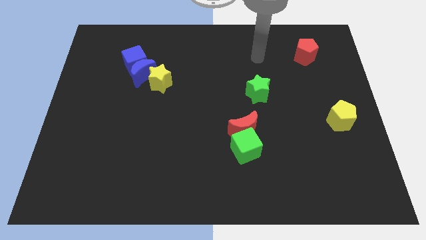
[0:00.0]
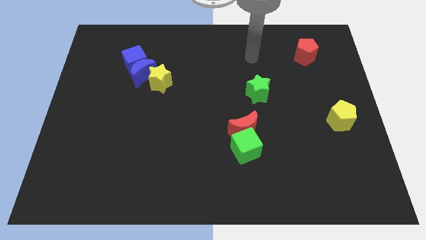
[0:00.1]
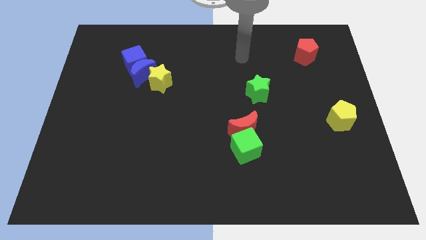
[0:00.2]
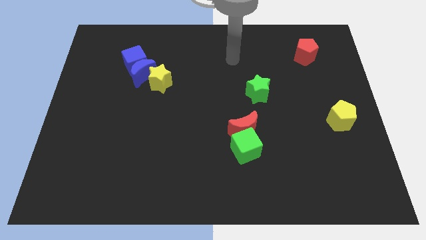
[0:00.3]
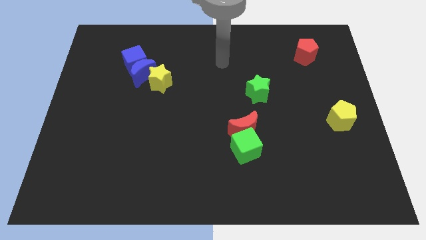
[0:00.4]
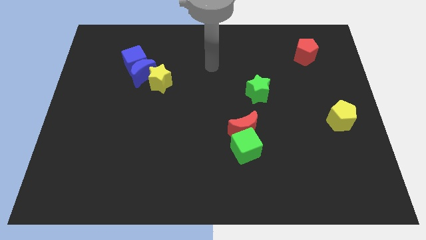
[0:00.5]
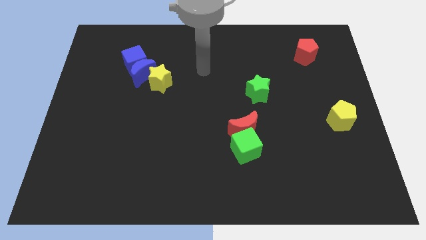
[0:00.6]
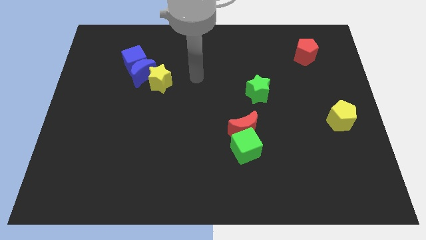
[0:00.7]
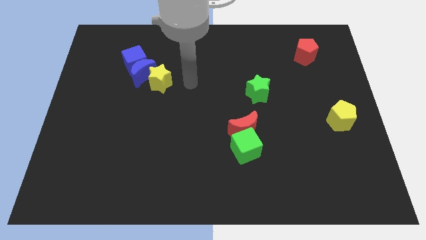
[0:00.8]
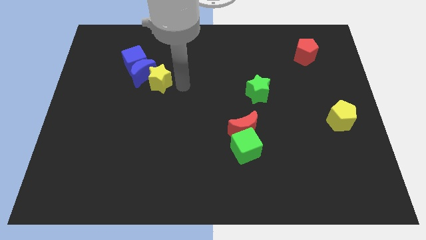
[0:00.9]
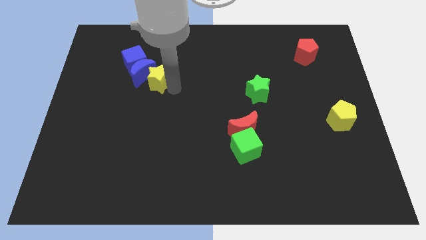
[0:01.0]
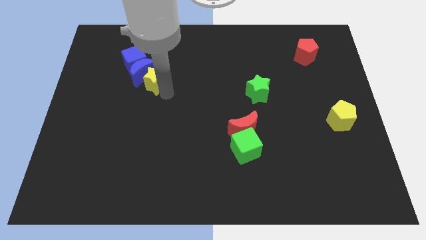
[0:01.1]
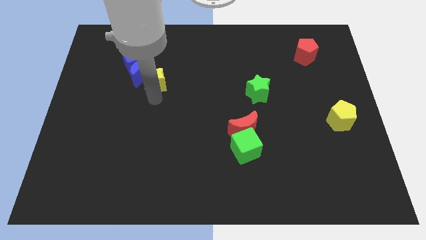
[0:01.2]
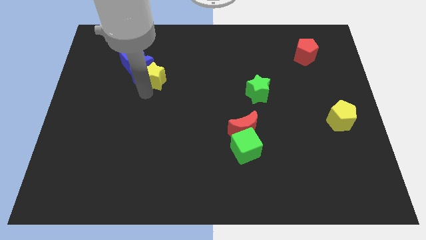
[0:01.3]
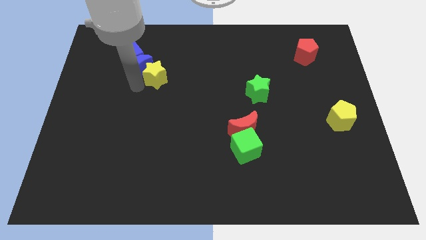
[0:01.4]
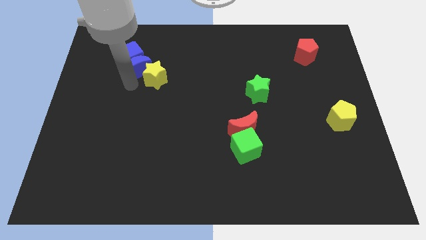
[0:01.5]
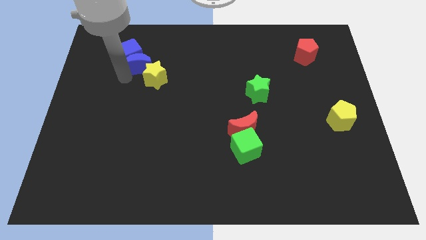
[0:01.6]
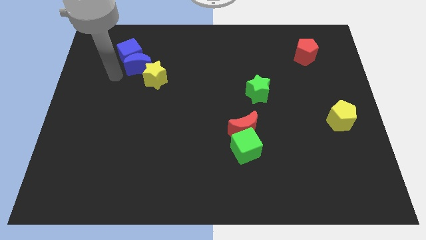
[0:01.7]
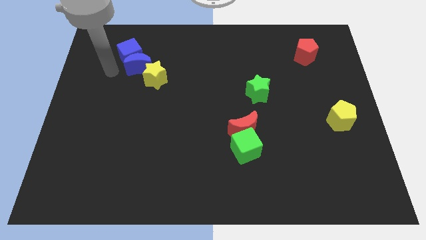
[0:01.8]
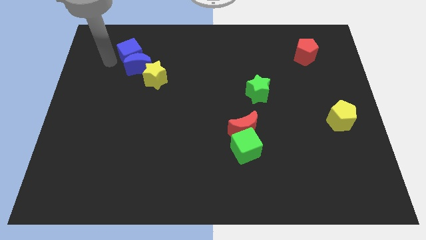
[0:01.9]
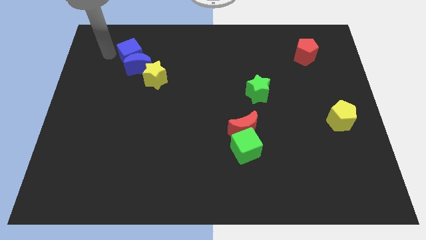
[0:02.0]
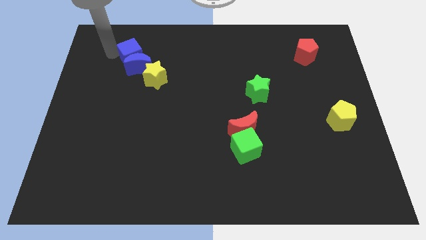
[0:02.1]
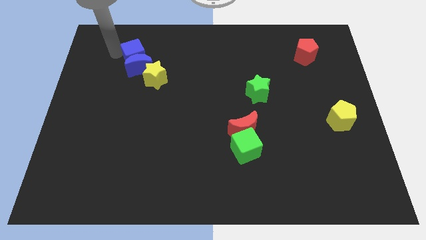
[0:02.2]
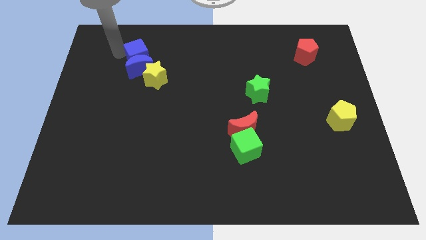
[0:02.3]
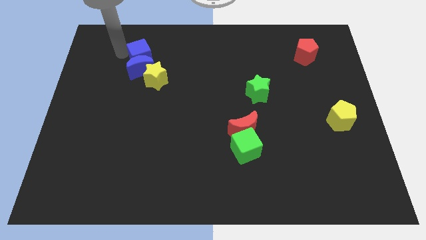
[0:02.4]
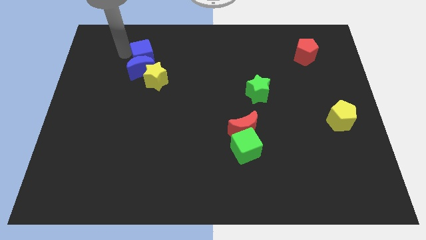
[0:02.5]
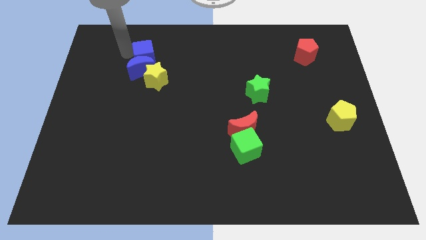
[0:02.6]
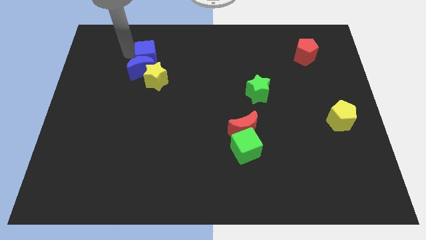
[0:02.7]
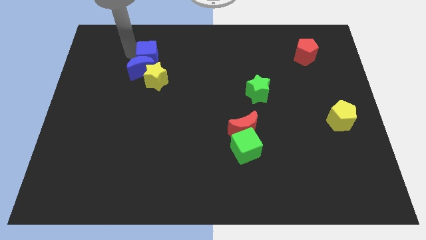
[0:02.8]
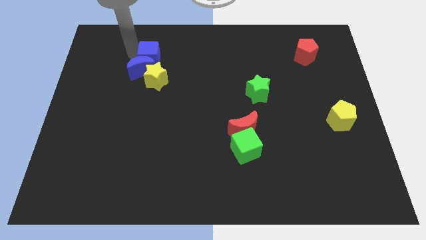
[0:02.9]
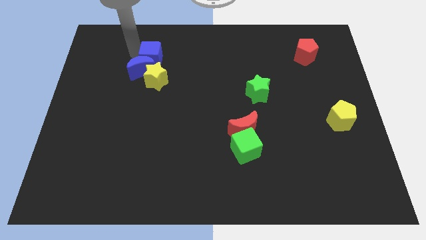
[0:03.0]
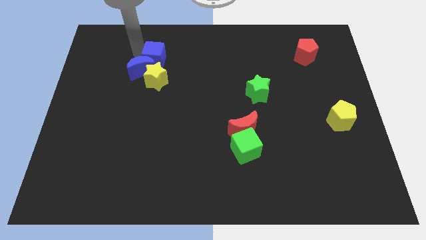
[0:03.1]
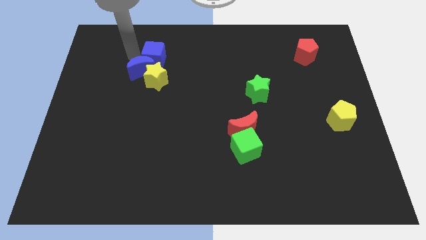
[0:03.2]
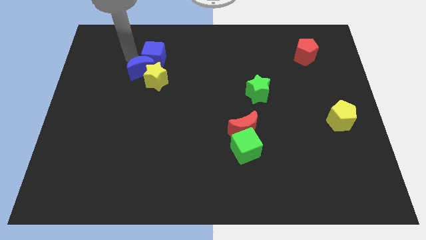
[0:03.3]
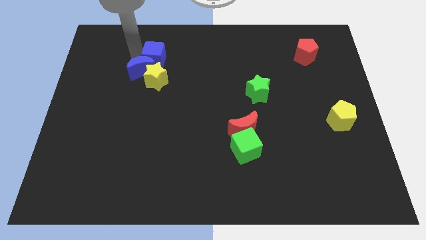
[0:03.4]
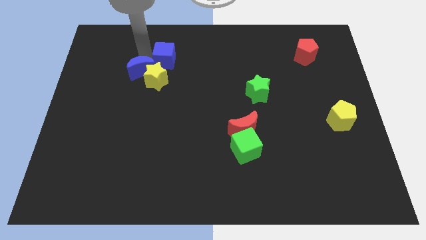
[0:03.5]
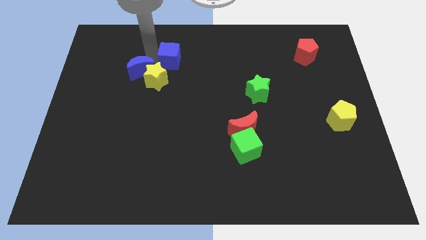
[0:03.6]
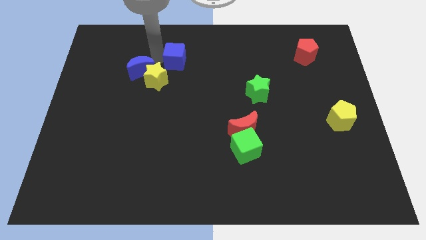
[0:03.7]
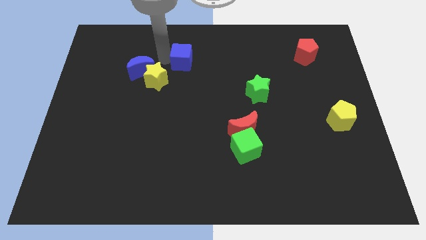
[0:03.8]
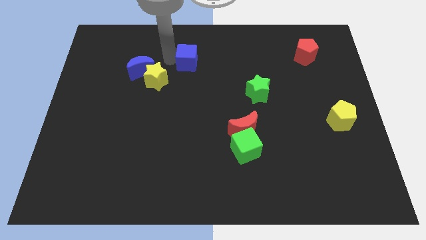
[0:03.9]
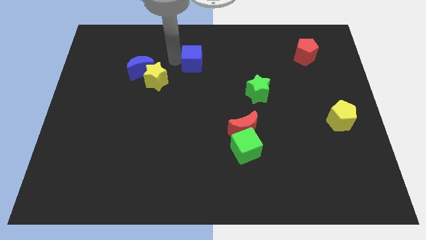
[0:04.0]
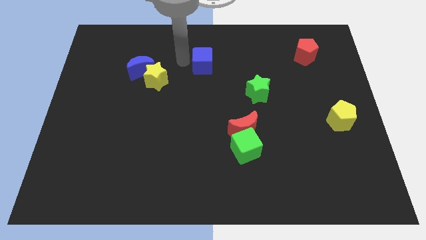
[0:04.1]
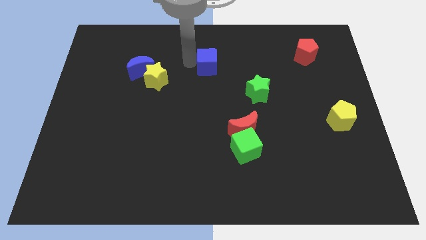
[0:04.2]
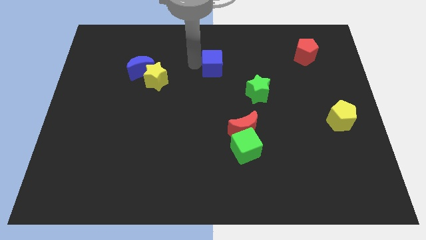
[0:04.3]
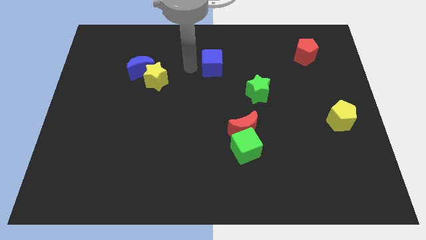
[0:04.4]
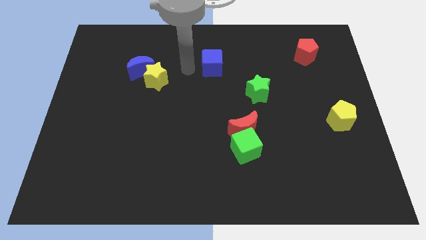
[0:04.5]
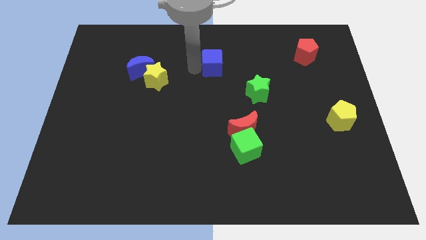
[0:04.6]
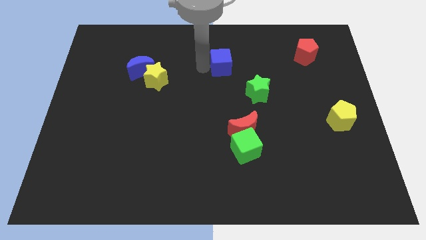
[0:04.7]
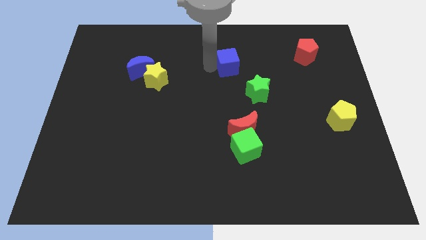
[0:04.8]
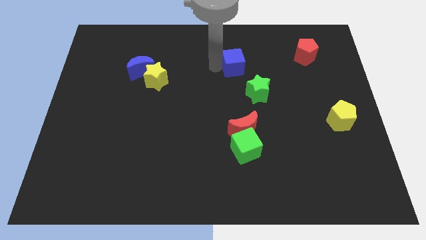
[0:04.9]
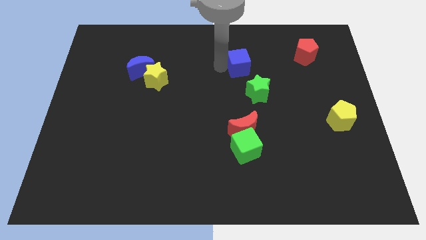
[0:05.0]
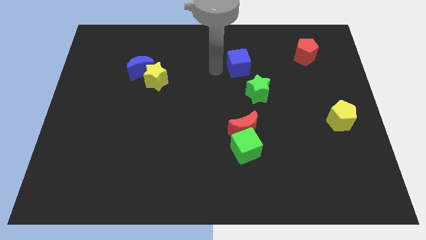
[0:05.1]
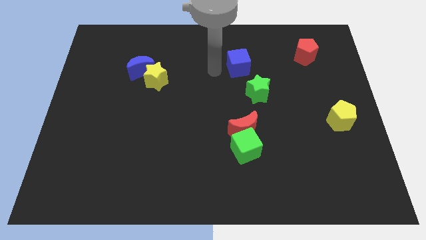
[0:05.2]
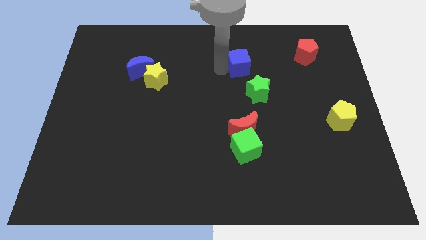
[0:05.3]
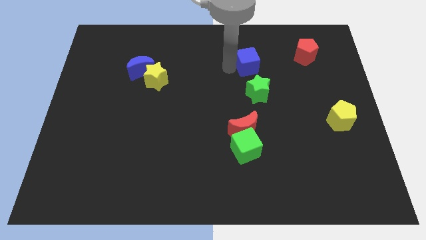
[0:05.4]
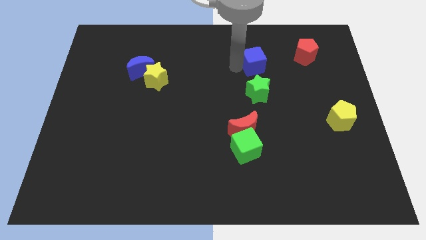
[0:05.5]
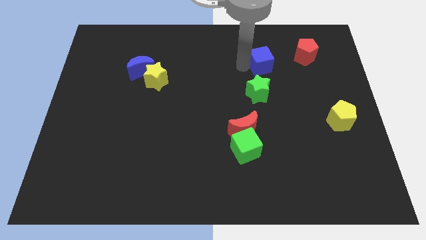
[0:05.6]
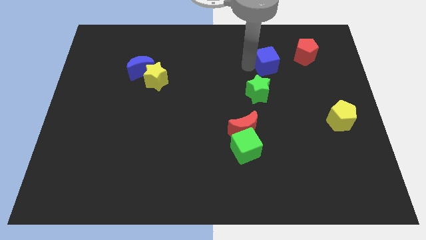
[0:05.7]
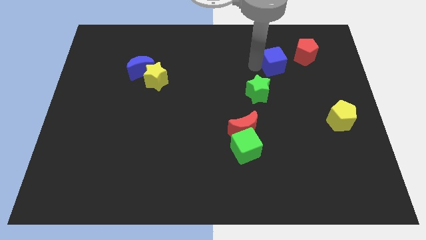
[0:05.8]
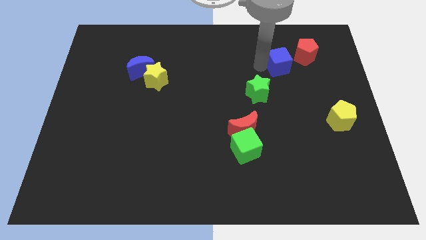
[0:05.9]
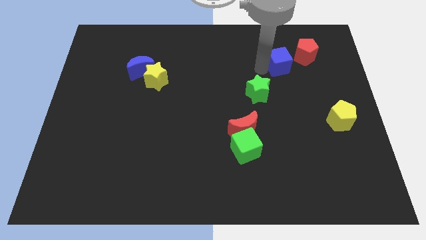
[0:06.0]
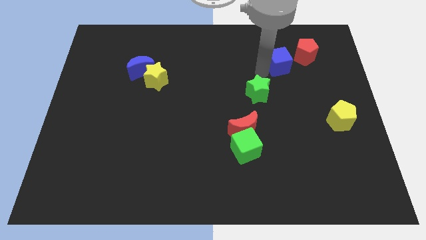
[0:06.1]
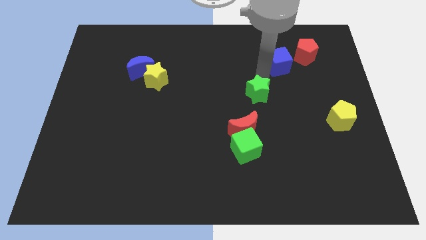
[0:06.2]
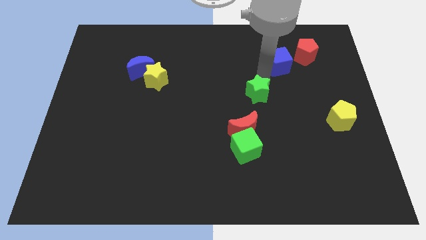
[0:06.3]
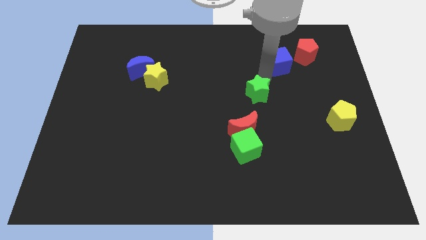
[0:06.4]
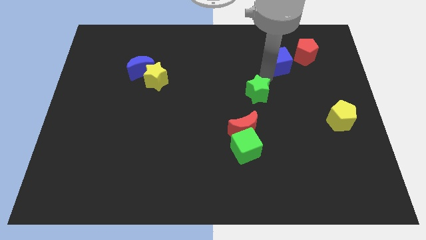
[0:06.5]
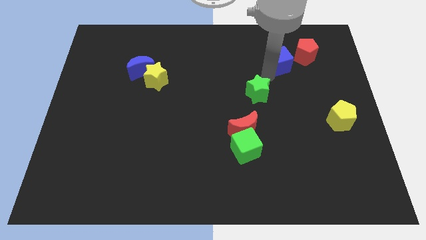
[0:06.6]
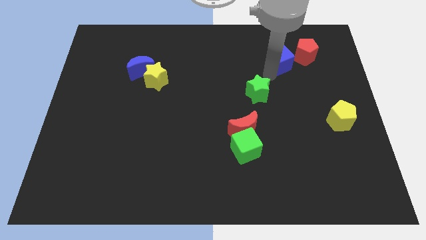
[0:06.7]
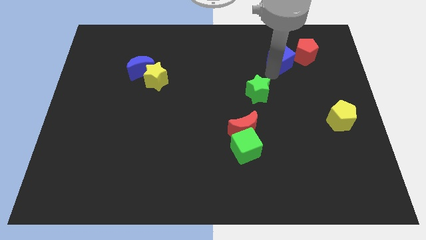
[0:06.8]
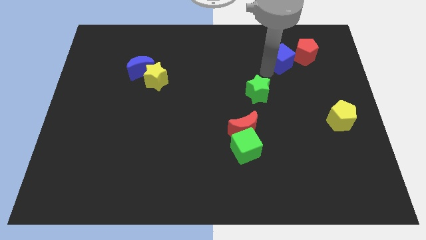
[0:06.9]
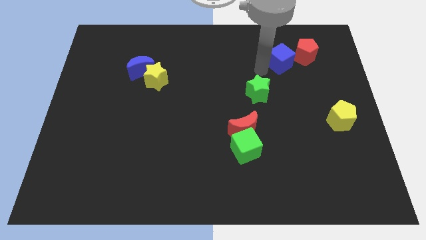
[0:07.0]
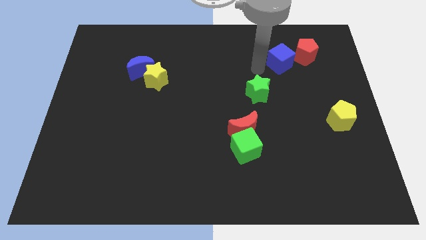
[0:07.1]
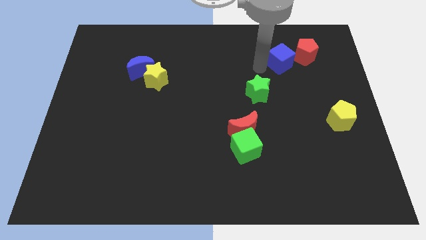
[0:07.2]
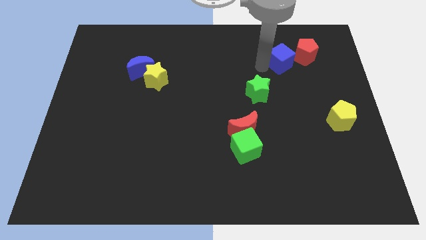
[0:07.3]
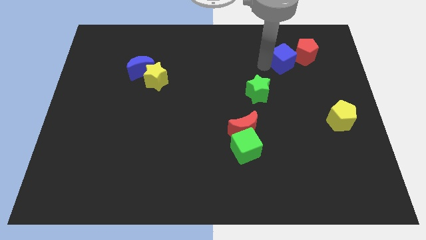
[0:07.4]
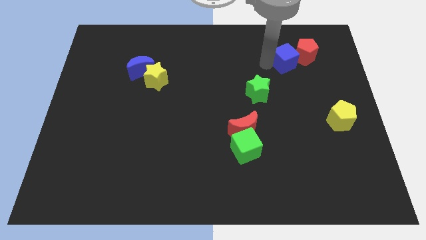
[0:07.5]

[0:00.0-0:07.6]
push the blue cube towards the red pentagon
